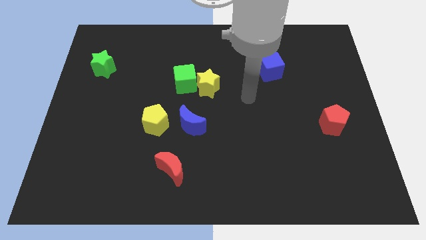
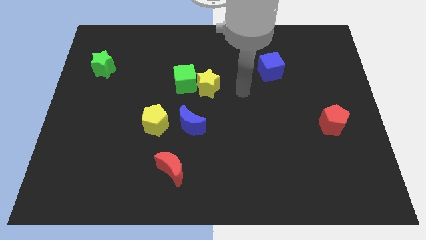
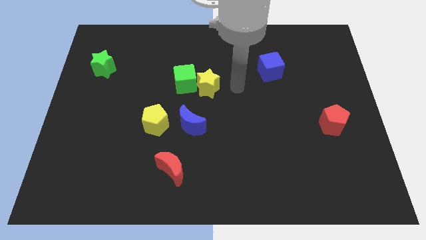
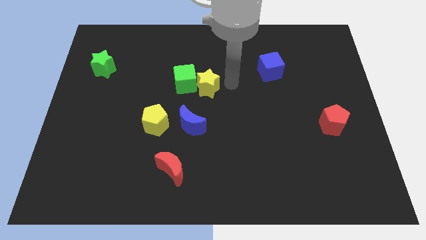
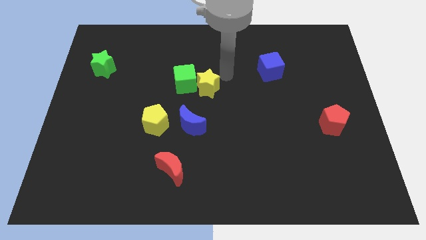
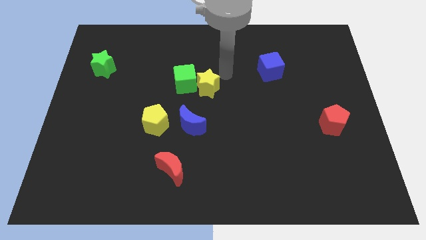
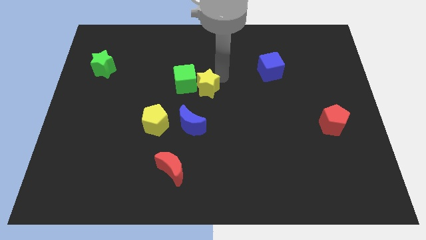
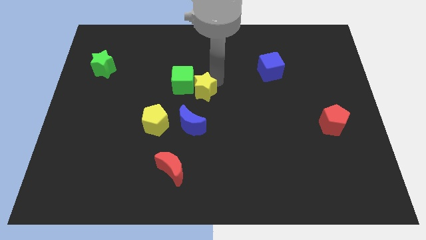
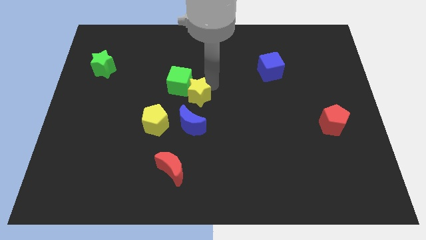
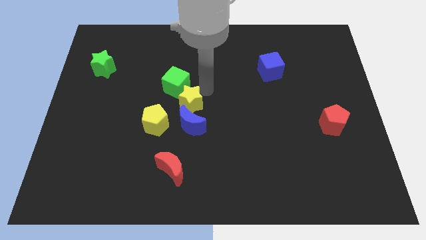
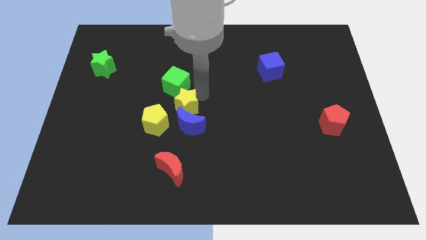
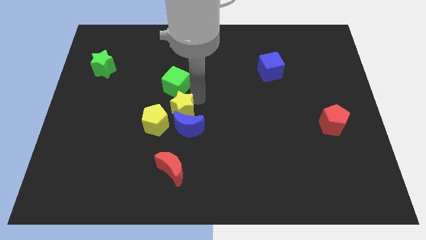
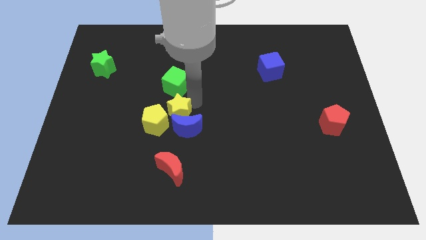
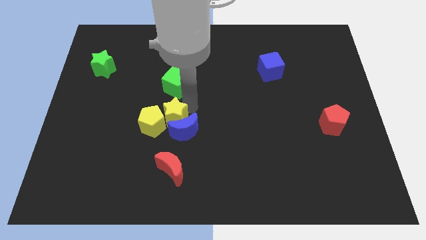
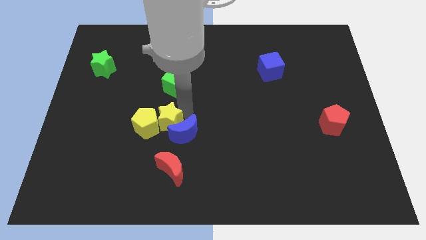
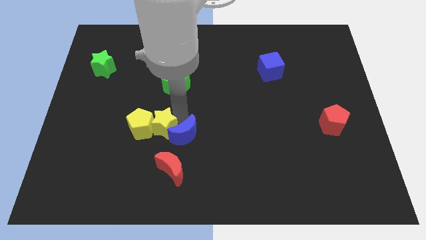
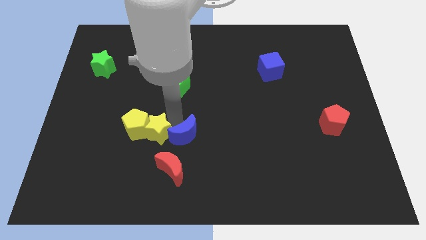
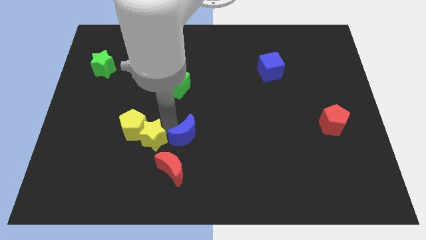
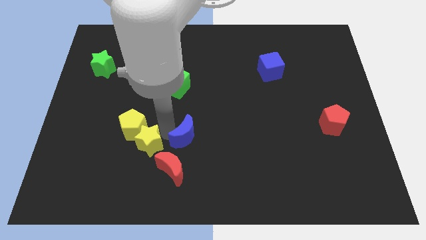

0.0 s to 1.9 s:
push the yellow star down and left diagonally

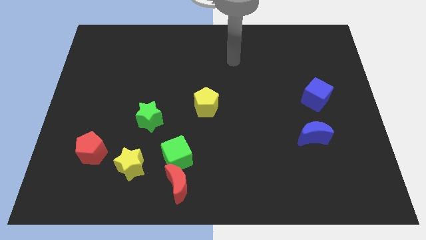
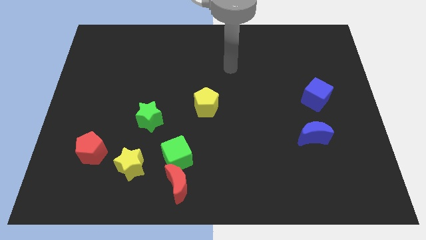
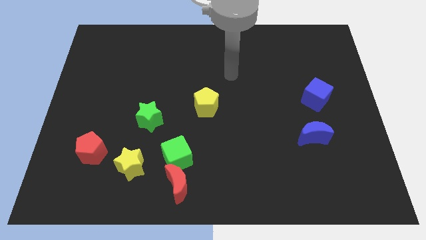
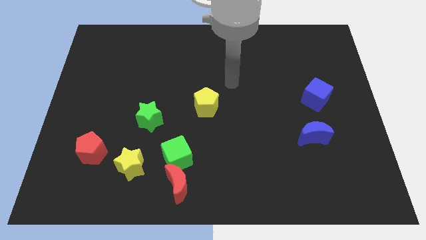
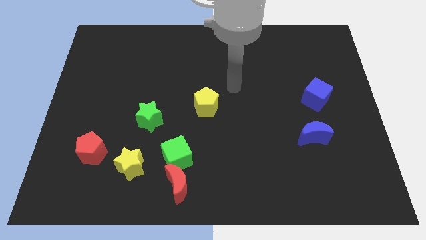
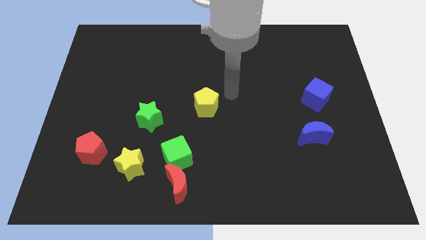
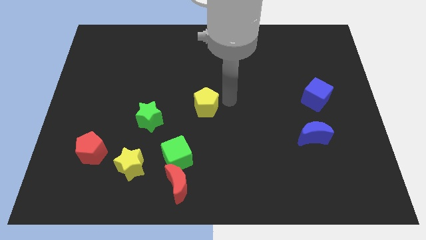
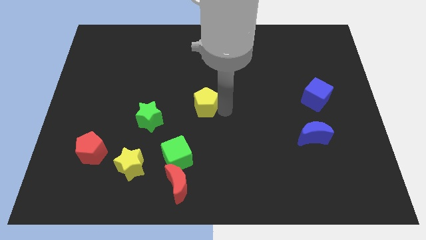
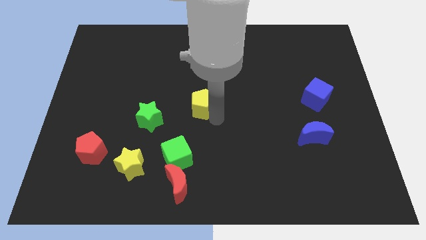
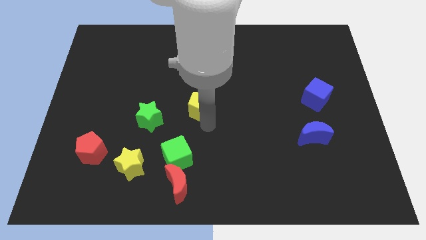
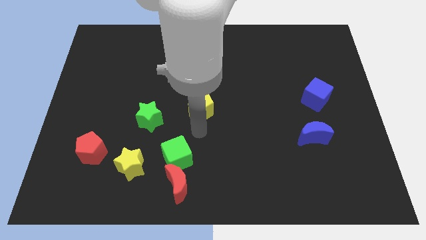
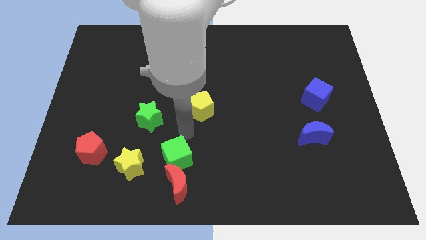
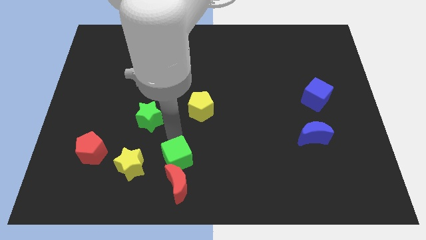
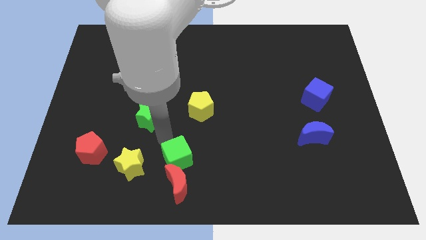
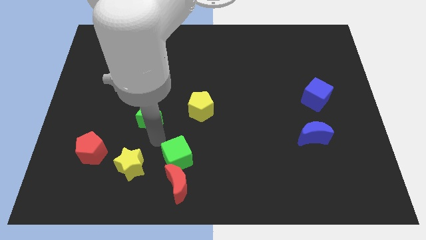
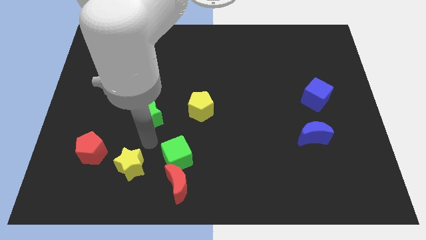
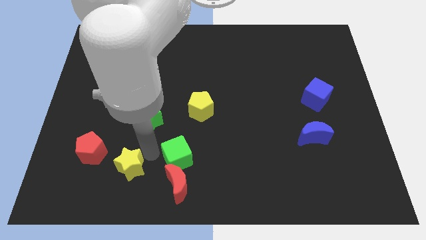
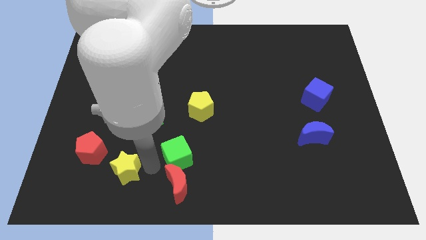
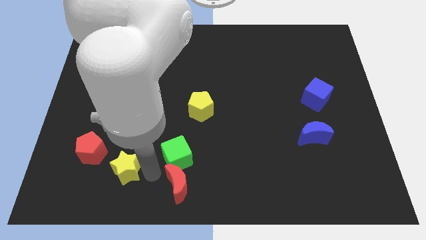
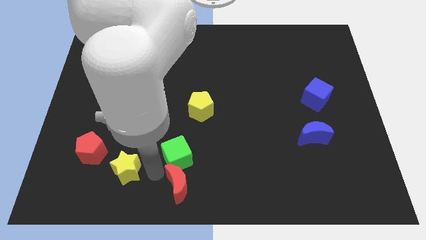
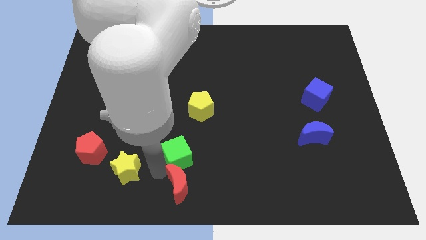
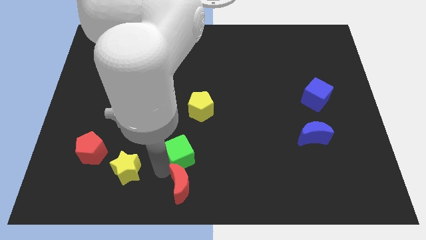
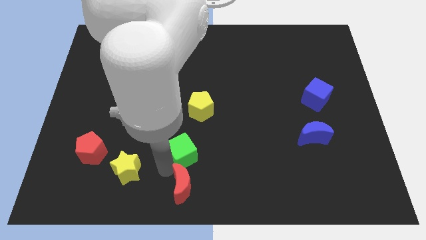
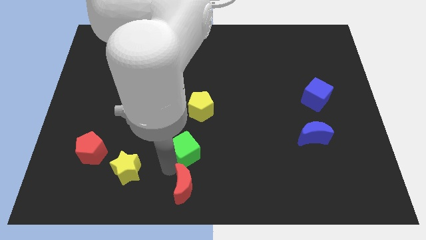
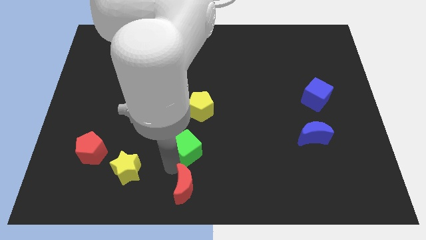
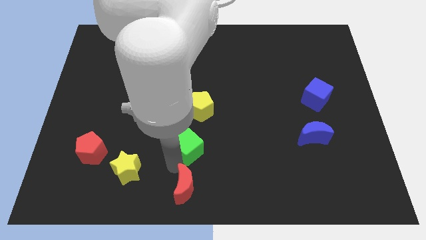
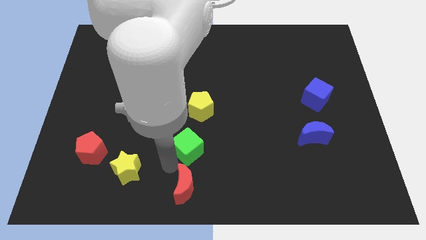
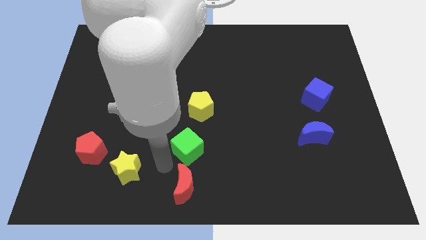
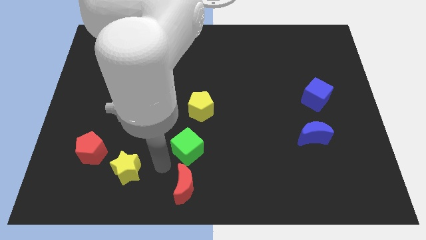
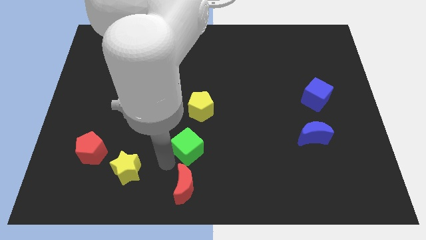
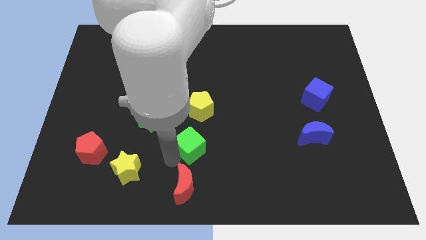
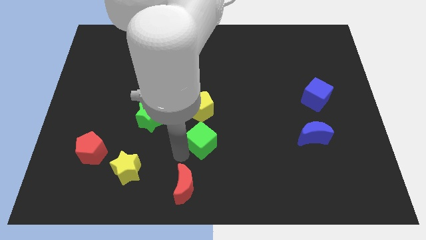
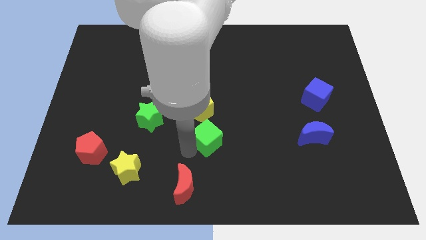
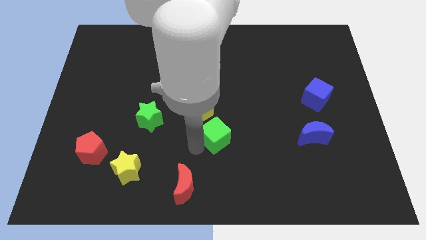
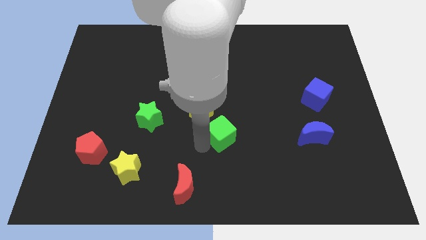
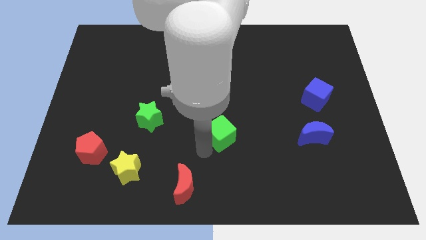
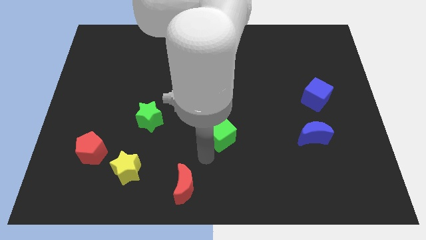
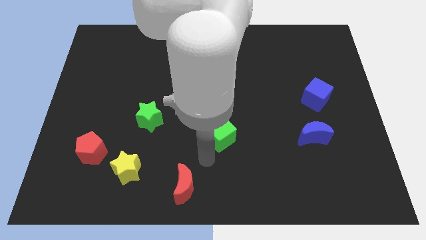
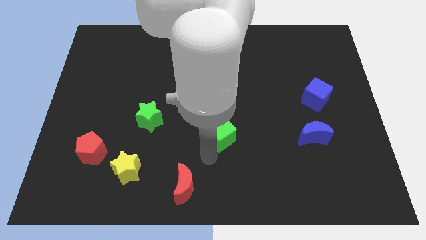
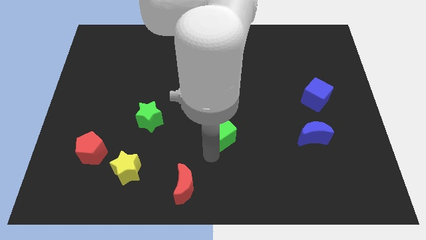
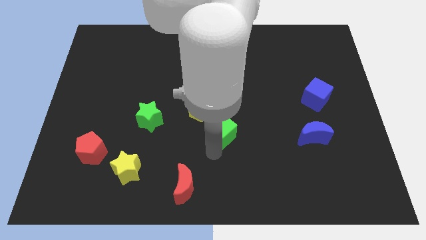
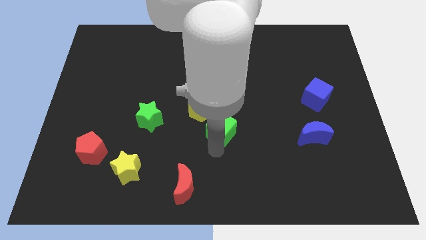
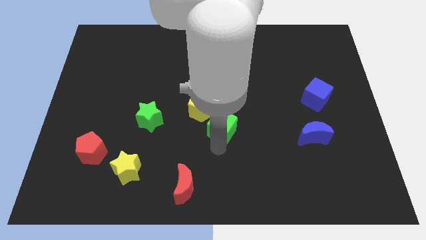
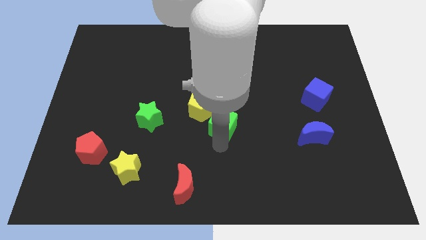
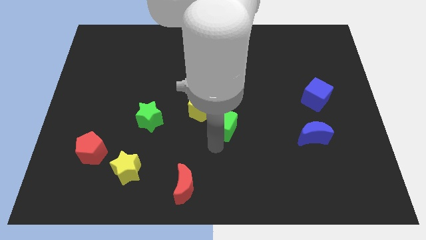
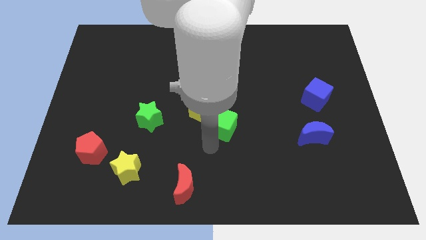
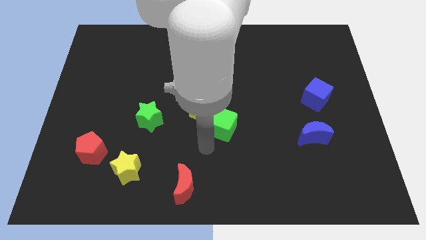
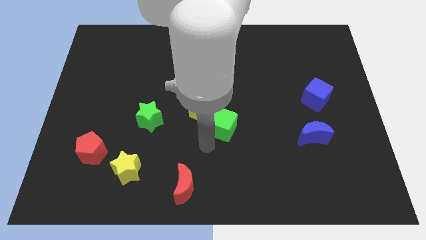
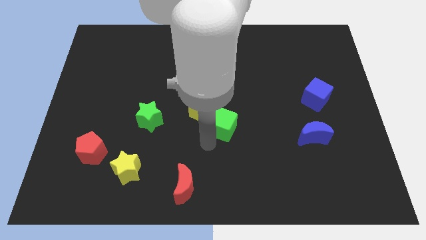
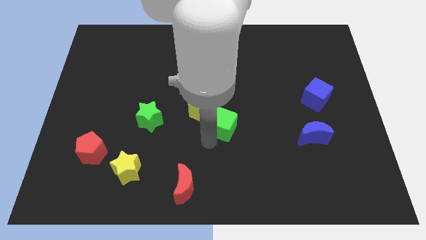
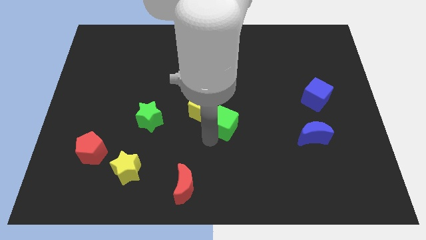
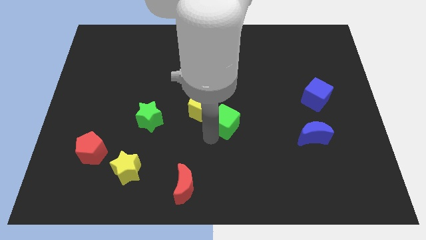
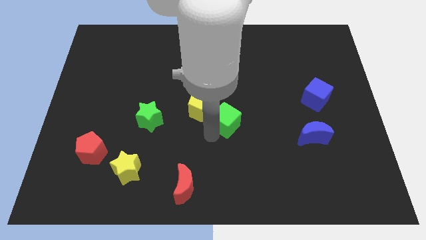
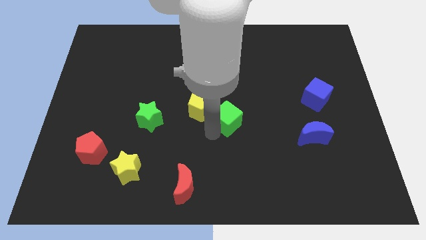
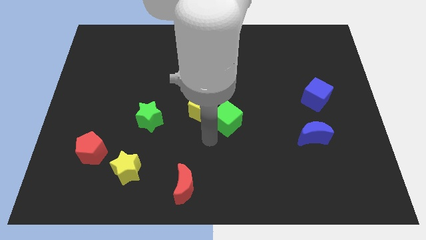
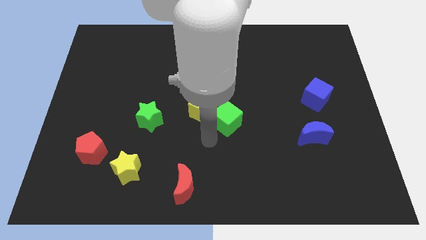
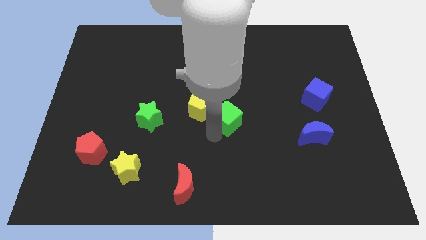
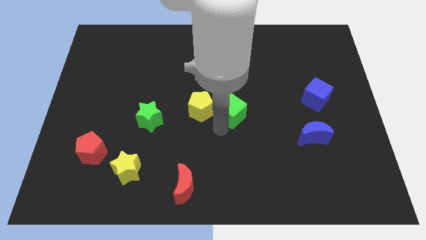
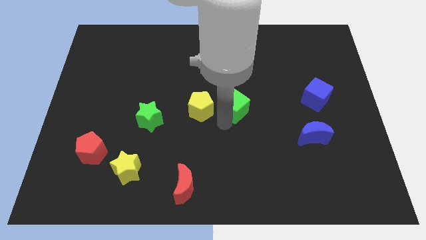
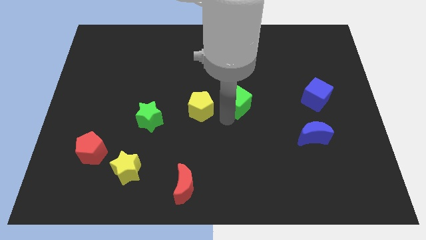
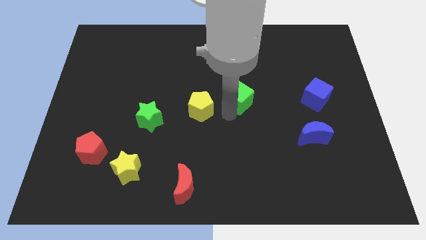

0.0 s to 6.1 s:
push the green cube up and right diagonally
